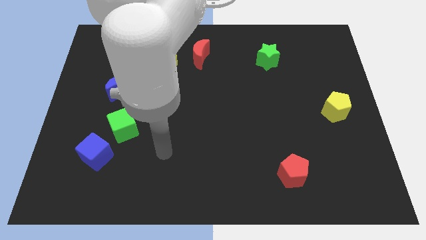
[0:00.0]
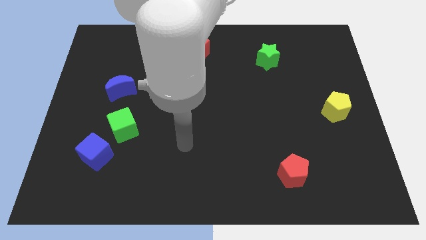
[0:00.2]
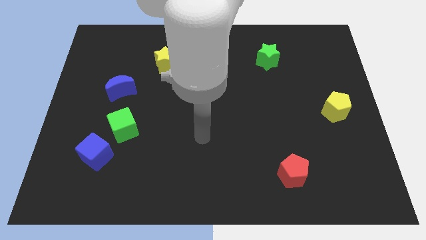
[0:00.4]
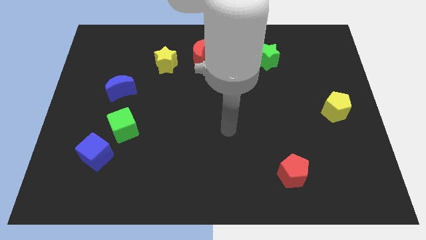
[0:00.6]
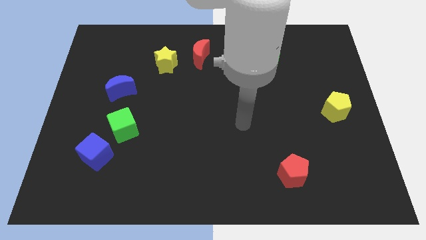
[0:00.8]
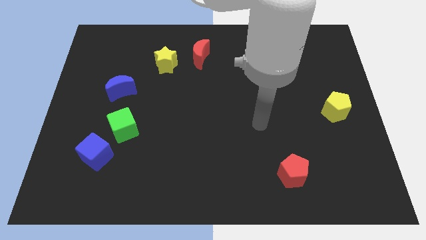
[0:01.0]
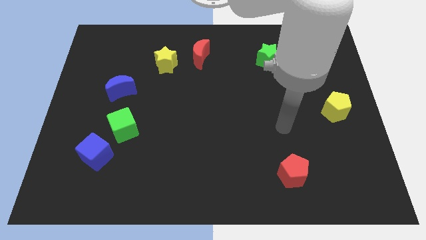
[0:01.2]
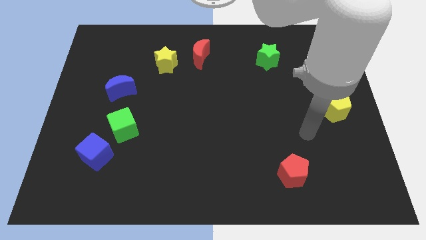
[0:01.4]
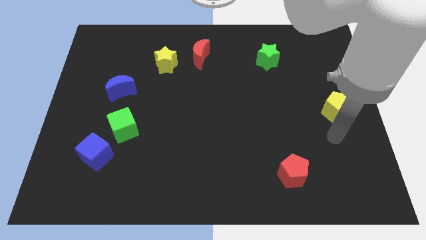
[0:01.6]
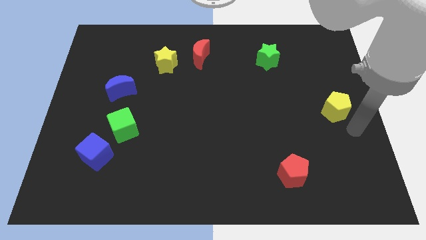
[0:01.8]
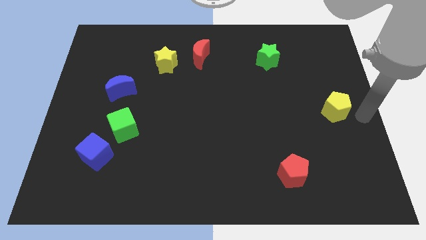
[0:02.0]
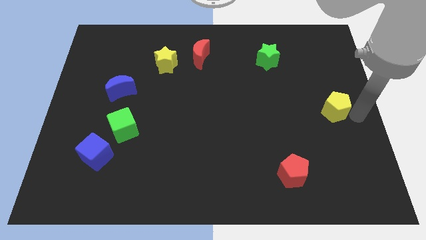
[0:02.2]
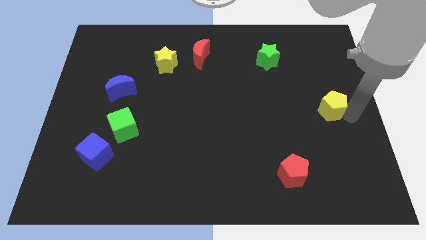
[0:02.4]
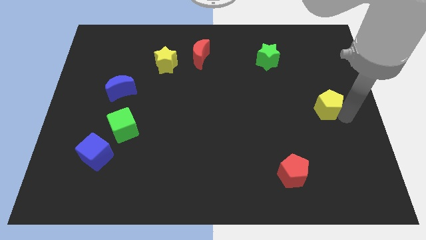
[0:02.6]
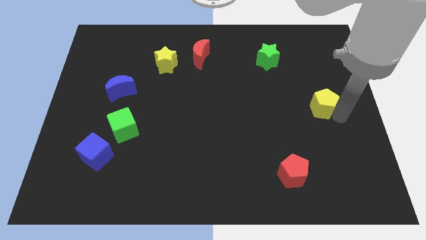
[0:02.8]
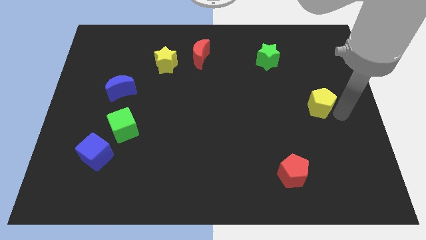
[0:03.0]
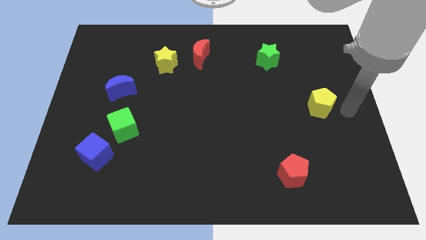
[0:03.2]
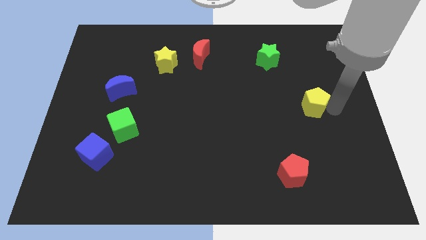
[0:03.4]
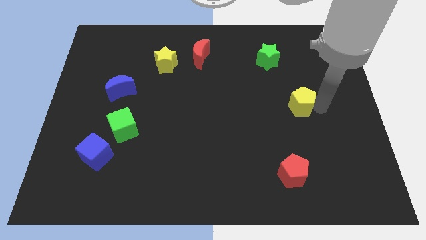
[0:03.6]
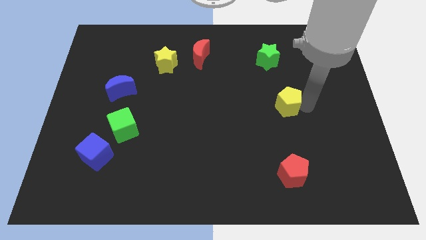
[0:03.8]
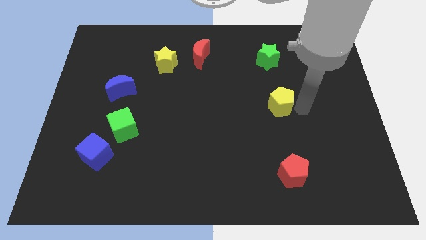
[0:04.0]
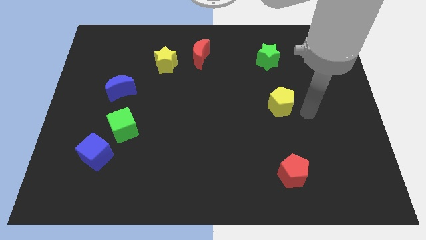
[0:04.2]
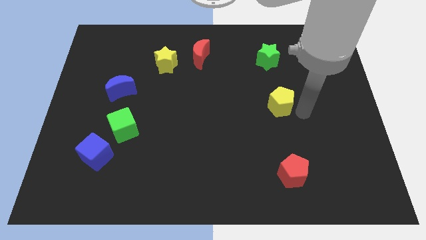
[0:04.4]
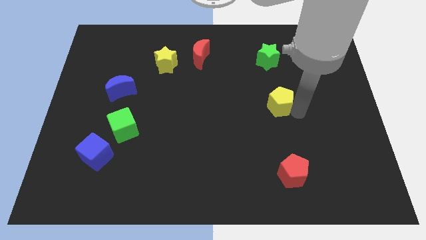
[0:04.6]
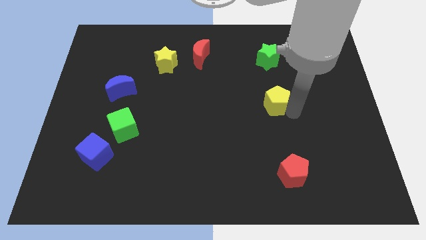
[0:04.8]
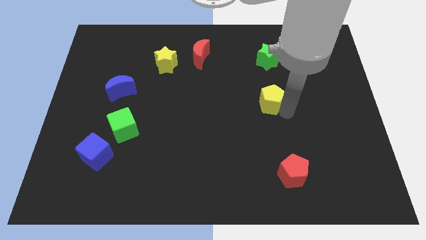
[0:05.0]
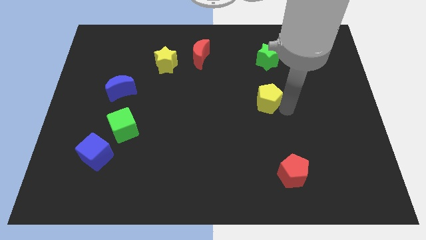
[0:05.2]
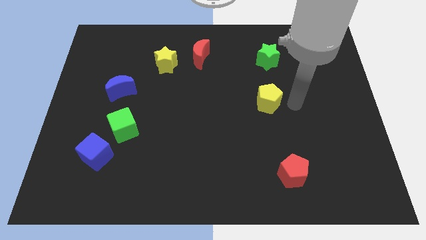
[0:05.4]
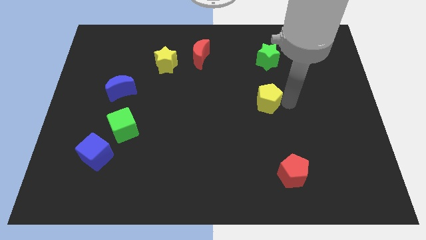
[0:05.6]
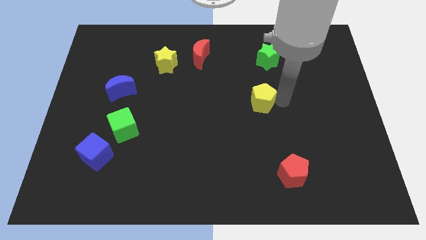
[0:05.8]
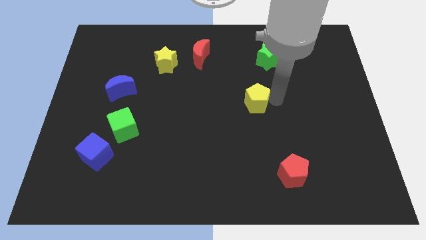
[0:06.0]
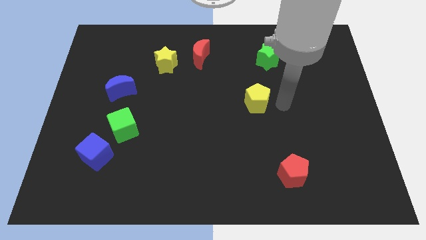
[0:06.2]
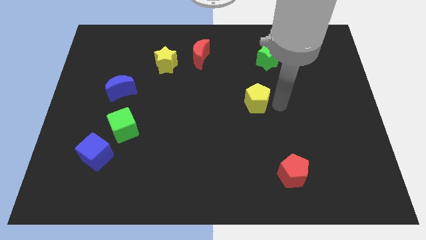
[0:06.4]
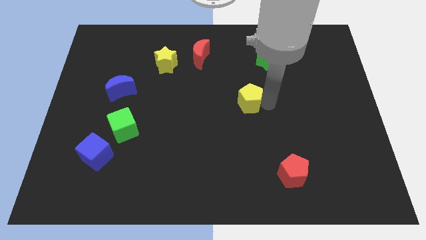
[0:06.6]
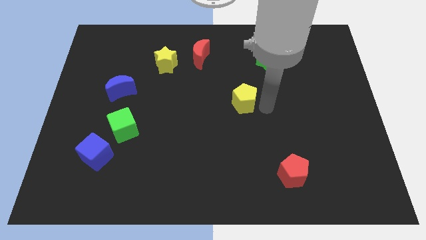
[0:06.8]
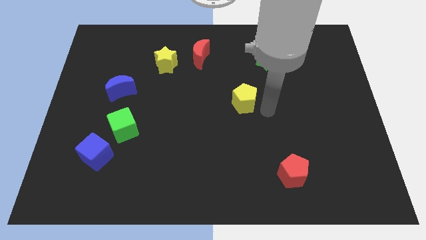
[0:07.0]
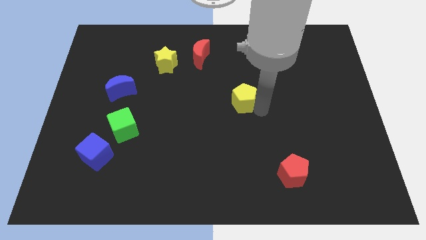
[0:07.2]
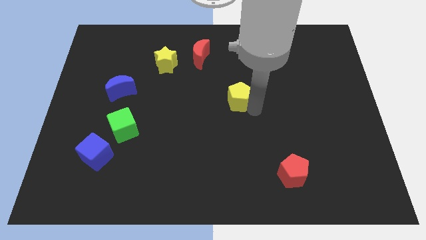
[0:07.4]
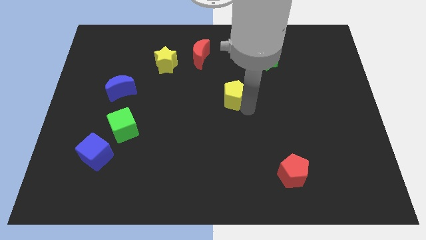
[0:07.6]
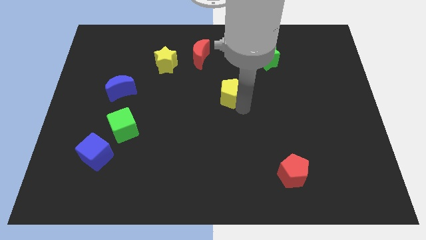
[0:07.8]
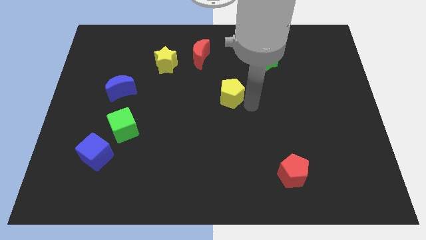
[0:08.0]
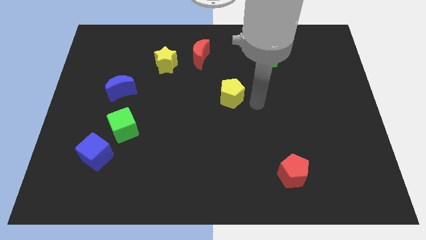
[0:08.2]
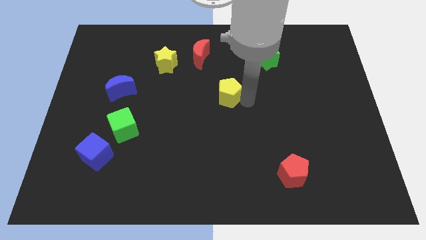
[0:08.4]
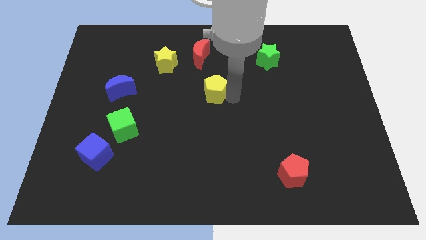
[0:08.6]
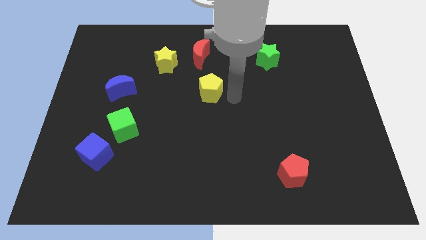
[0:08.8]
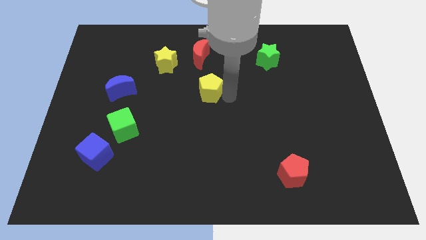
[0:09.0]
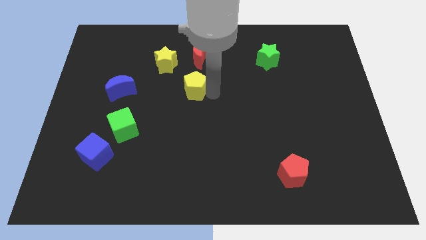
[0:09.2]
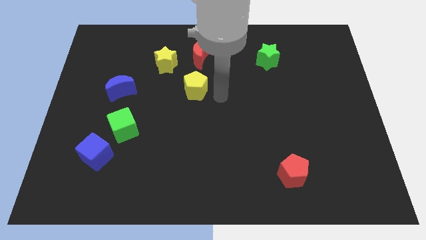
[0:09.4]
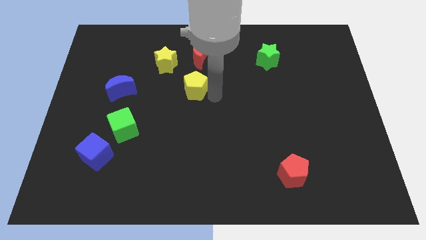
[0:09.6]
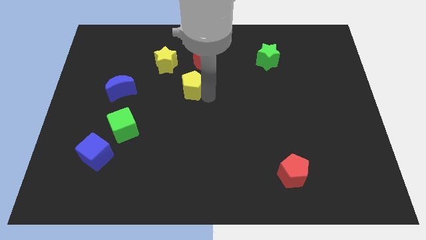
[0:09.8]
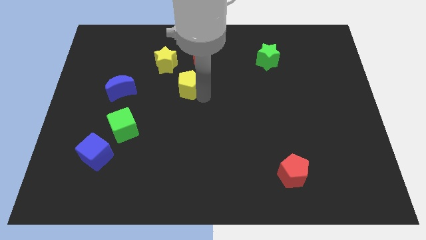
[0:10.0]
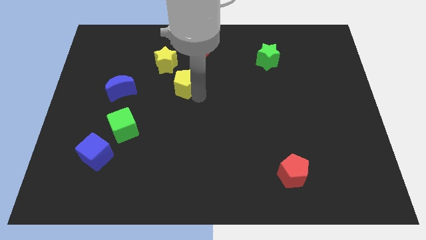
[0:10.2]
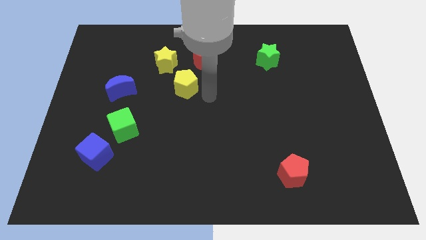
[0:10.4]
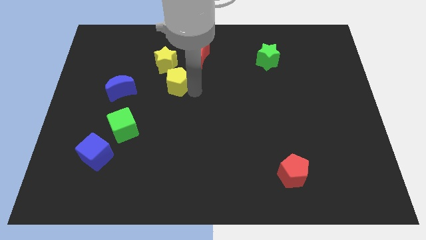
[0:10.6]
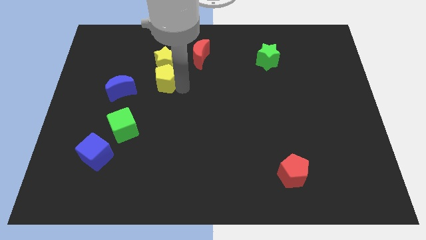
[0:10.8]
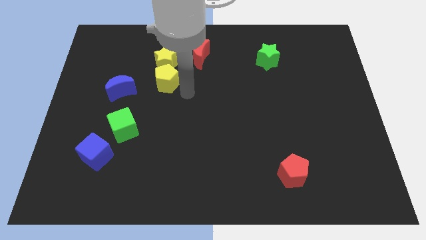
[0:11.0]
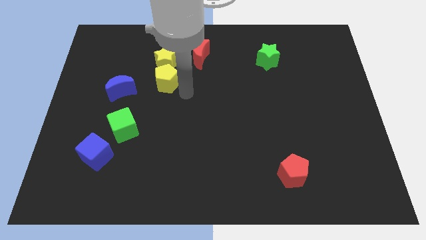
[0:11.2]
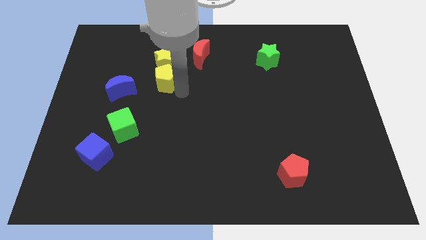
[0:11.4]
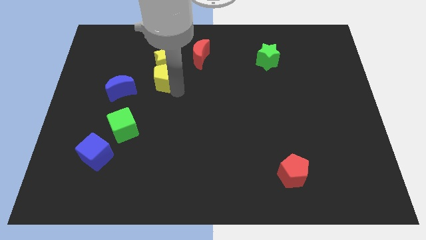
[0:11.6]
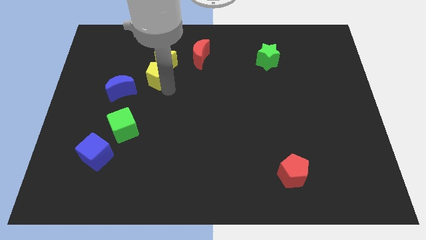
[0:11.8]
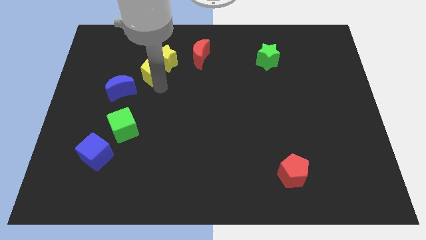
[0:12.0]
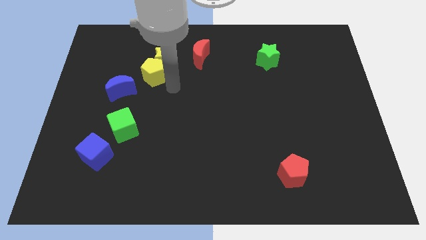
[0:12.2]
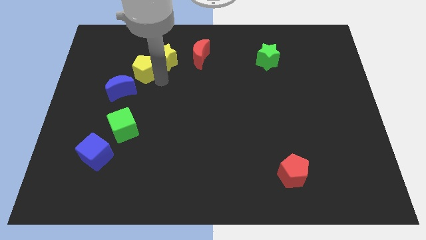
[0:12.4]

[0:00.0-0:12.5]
move the yellow pentagon to the top side of the blue moon

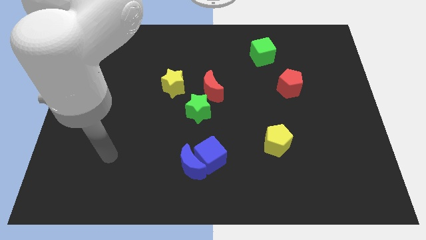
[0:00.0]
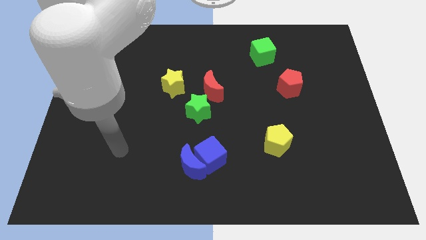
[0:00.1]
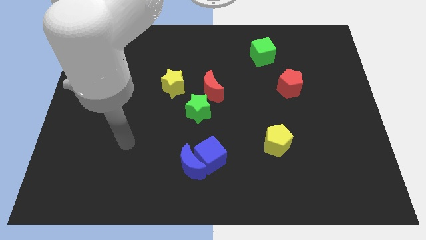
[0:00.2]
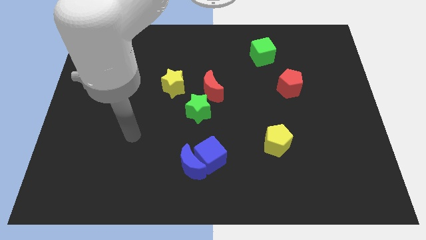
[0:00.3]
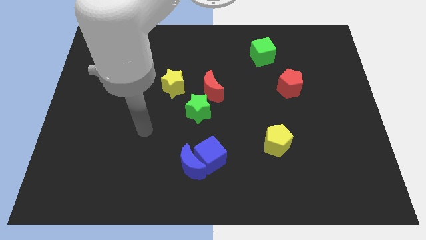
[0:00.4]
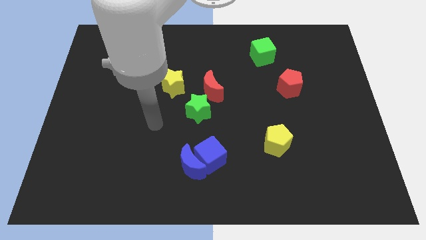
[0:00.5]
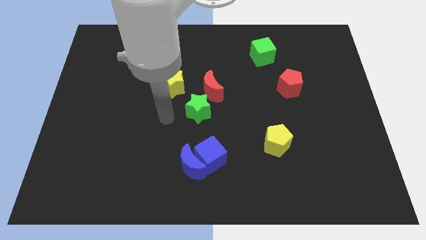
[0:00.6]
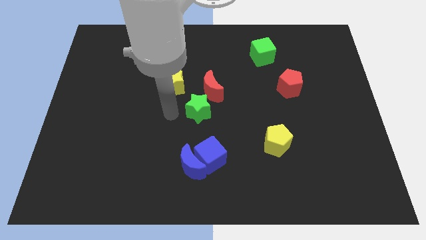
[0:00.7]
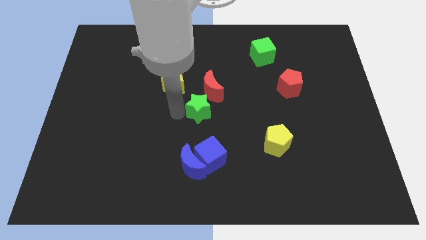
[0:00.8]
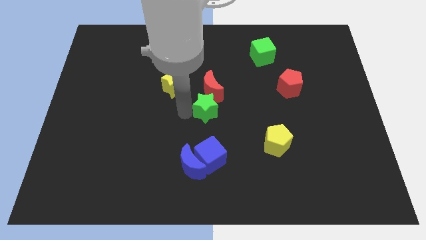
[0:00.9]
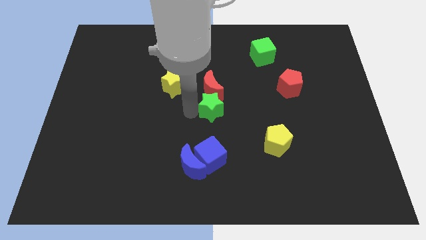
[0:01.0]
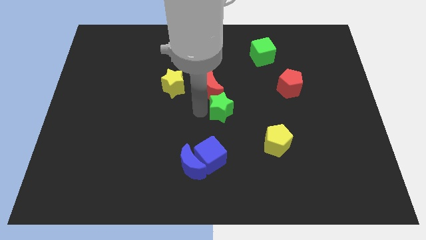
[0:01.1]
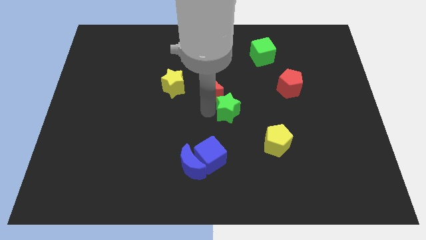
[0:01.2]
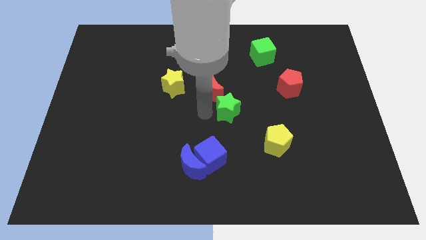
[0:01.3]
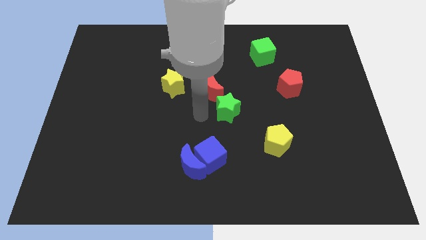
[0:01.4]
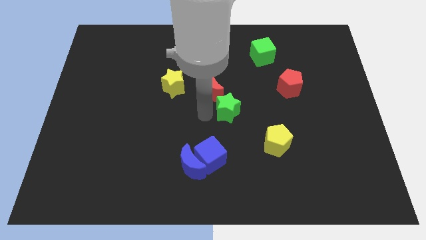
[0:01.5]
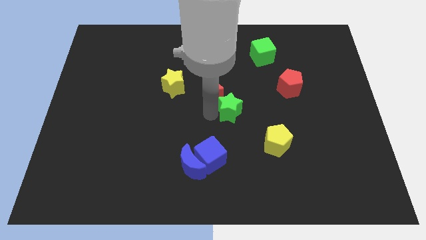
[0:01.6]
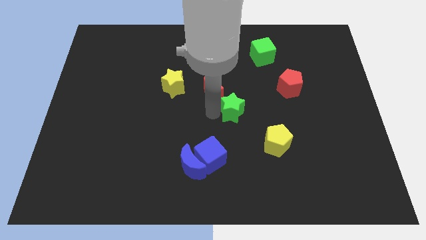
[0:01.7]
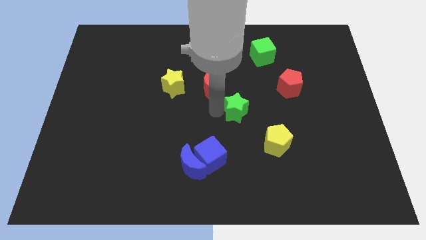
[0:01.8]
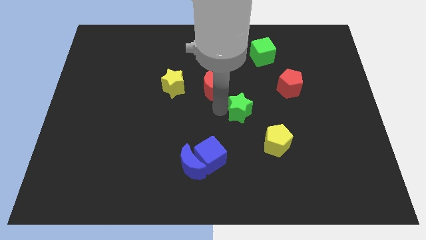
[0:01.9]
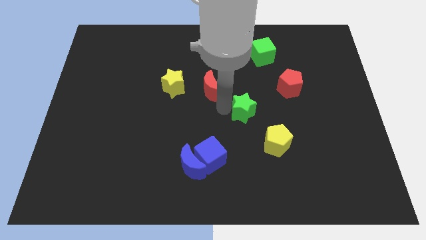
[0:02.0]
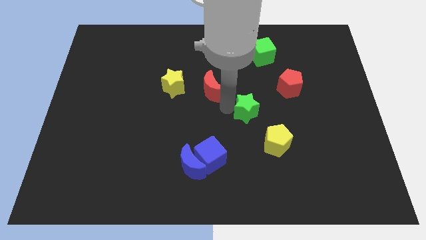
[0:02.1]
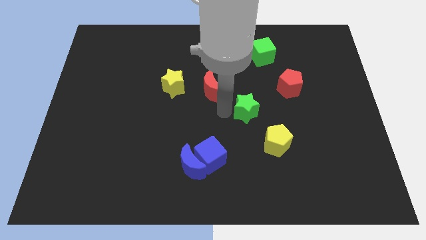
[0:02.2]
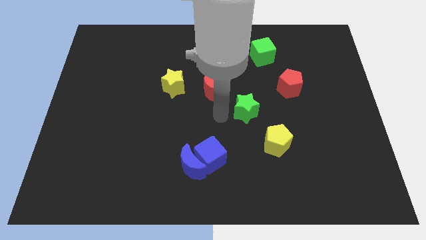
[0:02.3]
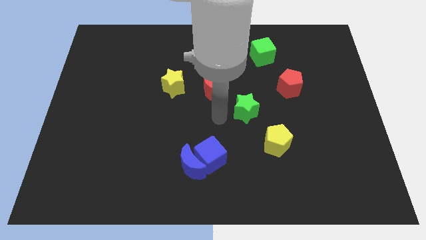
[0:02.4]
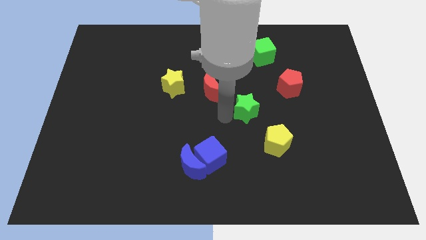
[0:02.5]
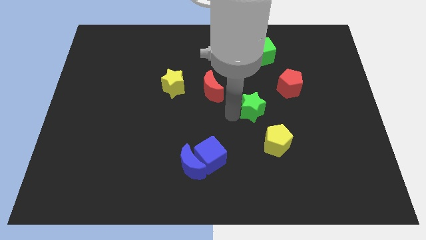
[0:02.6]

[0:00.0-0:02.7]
push the green star to the top of the yellow pentagon
